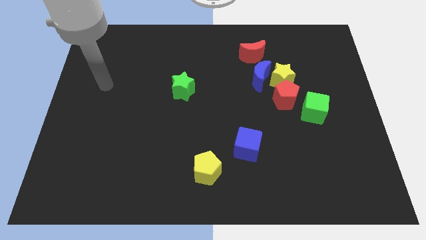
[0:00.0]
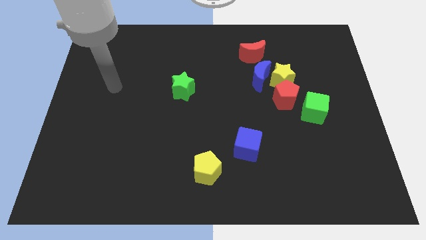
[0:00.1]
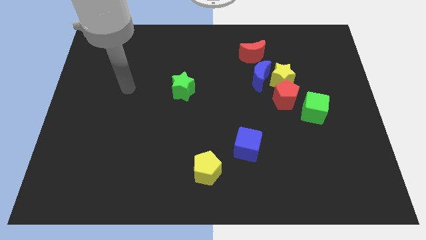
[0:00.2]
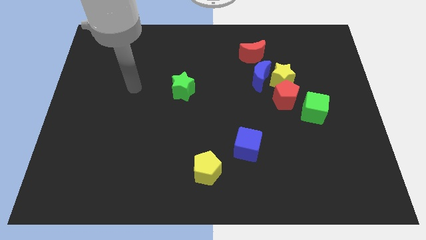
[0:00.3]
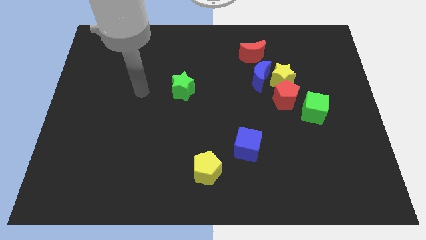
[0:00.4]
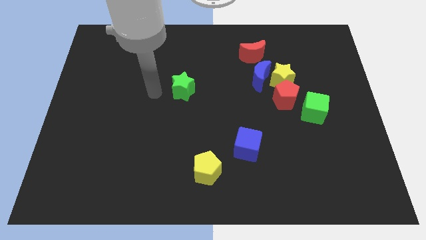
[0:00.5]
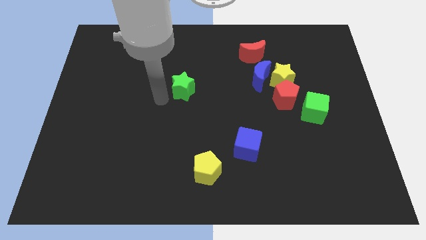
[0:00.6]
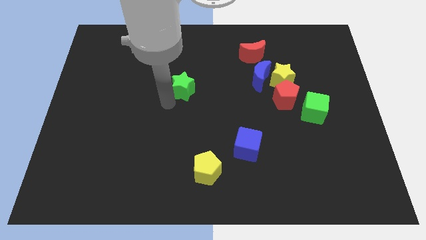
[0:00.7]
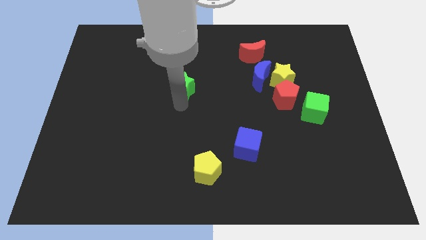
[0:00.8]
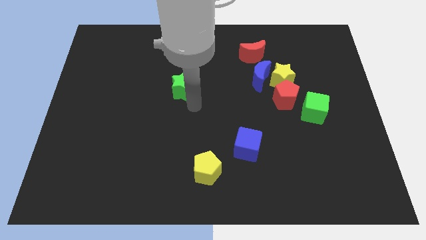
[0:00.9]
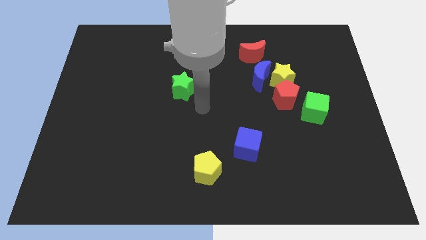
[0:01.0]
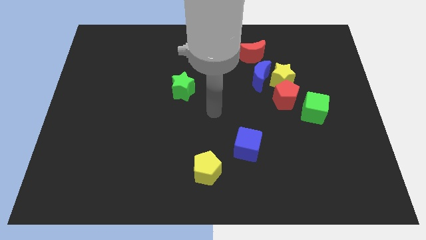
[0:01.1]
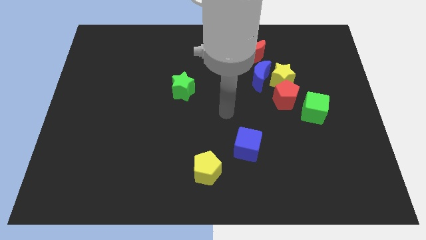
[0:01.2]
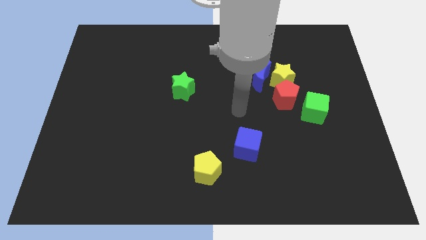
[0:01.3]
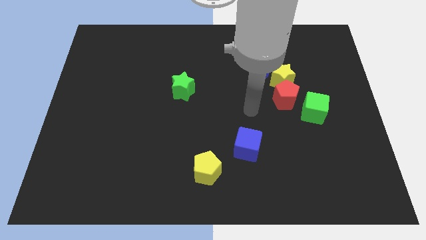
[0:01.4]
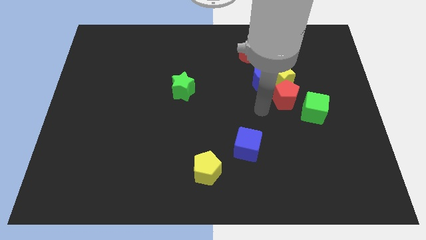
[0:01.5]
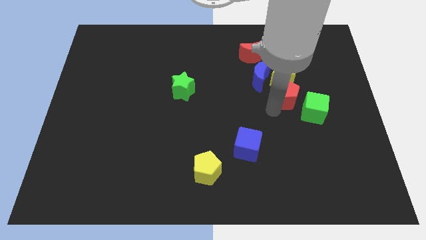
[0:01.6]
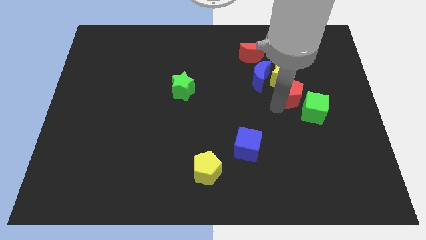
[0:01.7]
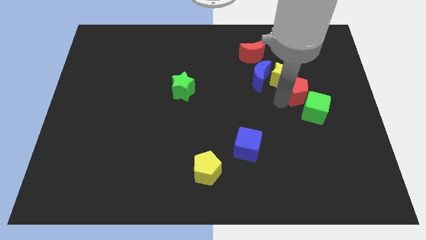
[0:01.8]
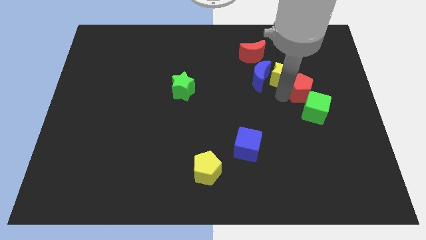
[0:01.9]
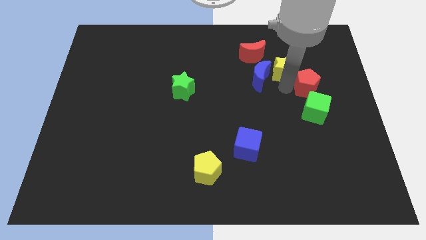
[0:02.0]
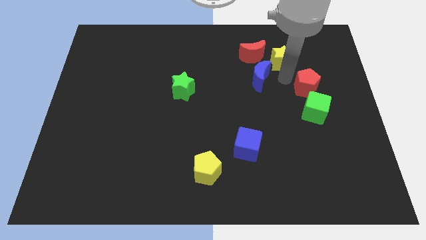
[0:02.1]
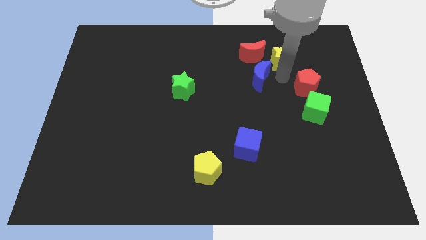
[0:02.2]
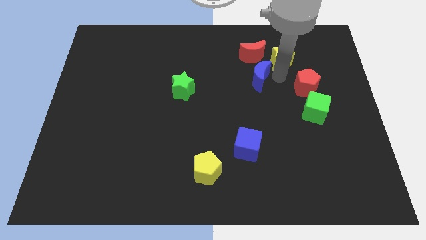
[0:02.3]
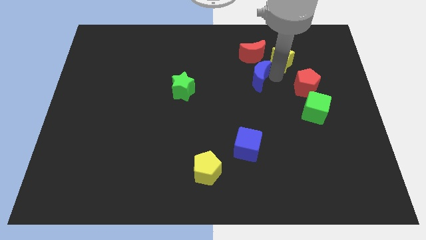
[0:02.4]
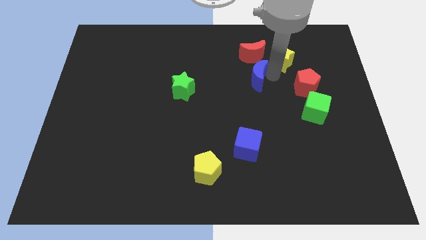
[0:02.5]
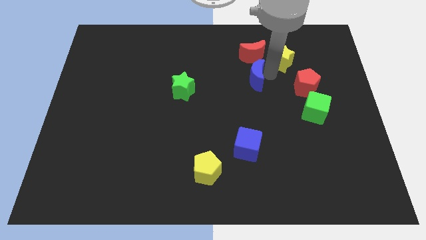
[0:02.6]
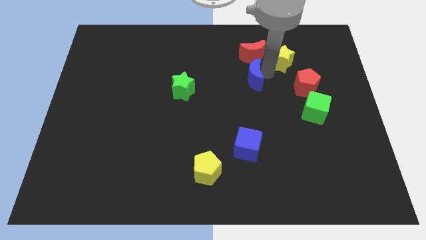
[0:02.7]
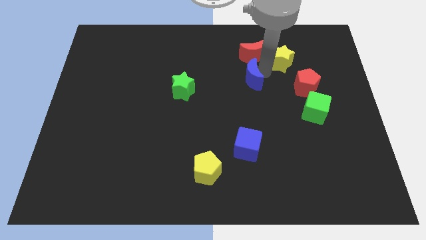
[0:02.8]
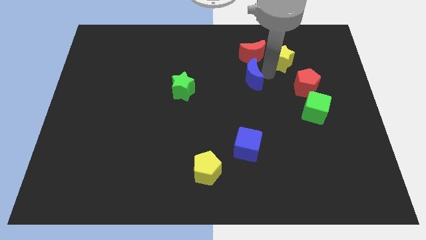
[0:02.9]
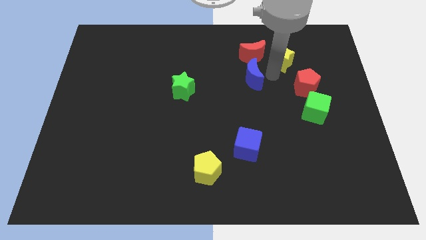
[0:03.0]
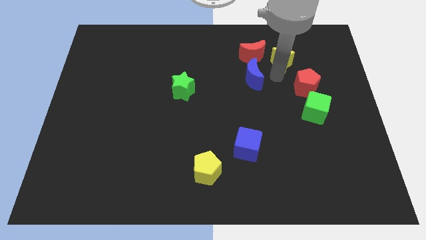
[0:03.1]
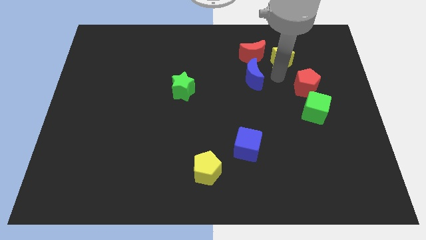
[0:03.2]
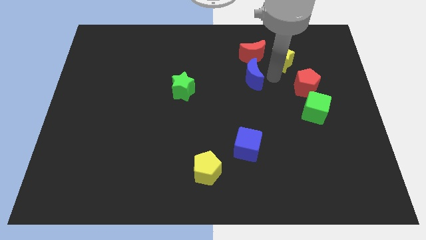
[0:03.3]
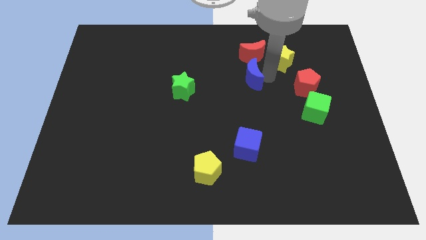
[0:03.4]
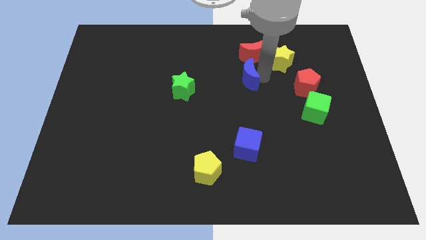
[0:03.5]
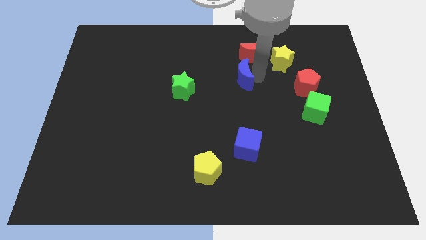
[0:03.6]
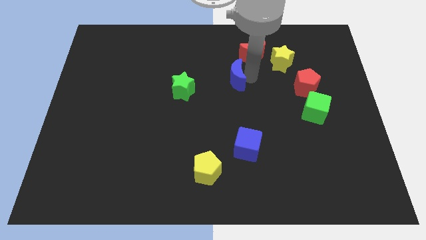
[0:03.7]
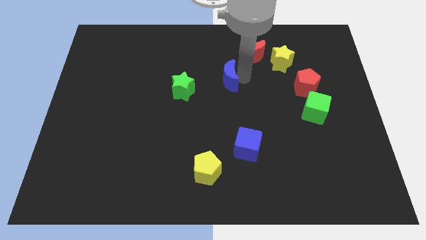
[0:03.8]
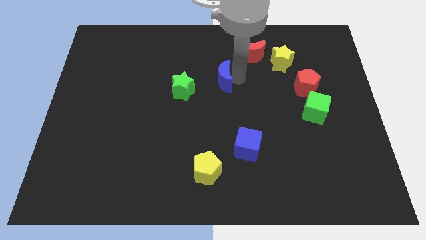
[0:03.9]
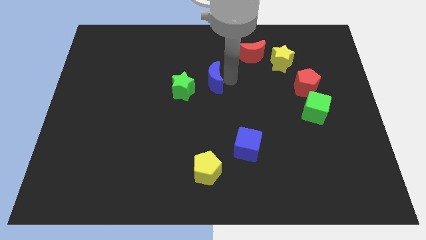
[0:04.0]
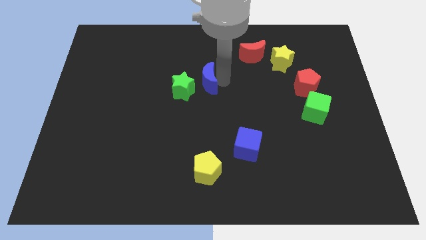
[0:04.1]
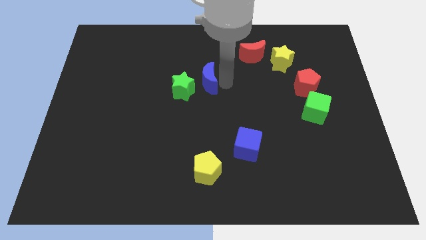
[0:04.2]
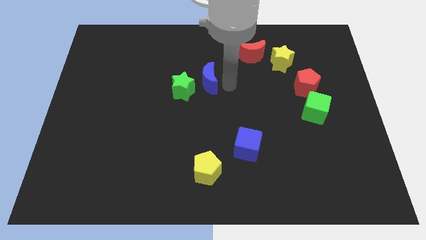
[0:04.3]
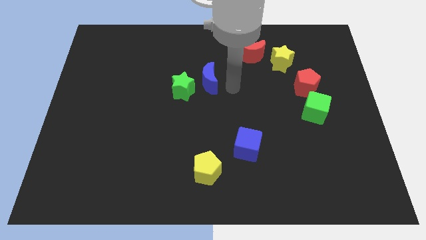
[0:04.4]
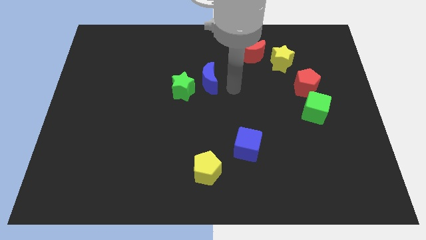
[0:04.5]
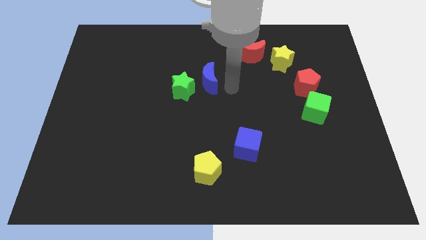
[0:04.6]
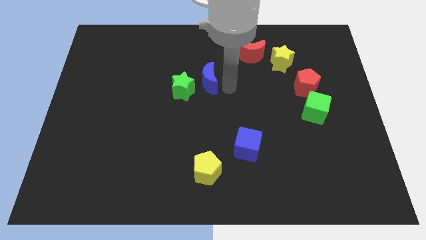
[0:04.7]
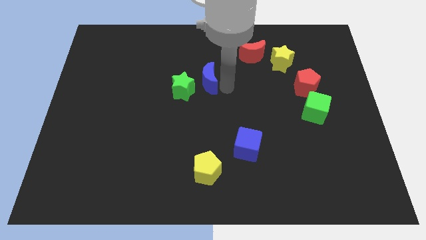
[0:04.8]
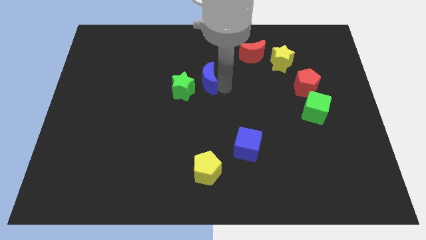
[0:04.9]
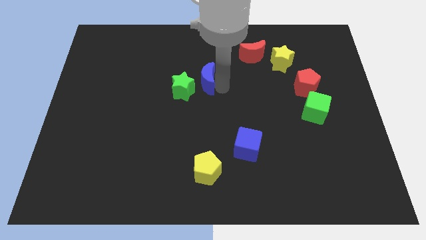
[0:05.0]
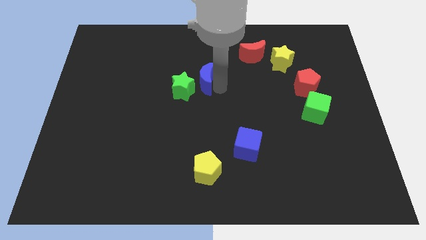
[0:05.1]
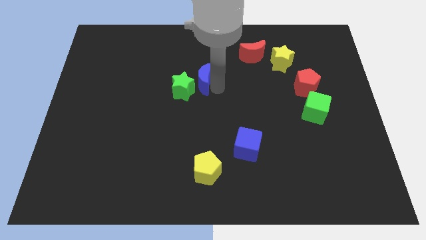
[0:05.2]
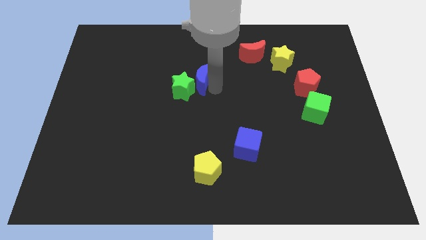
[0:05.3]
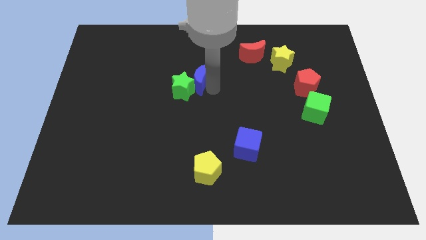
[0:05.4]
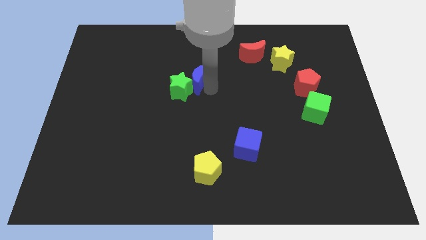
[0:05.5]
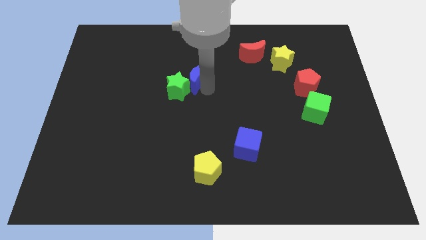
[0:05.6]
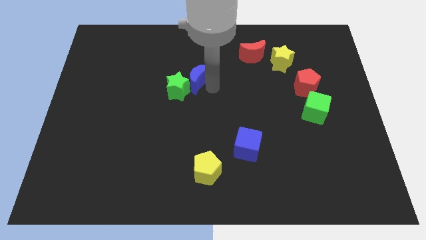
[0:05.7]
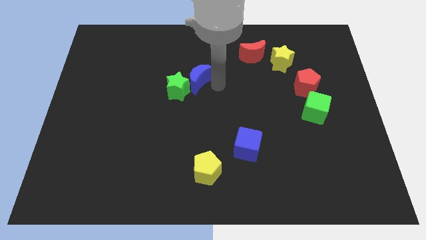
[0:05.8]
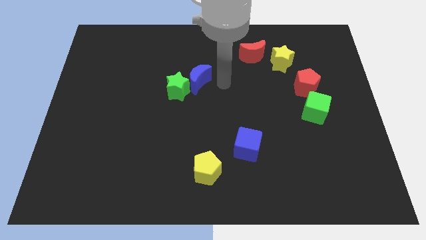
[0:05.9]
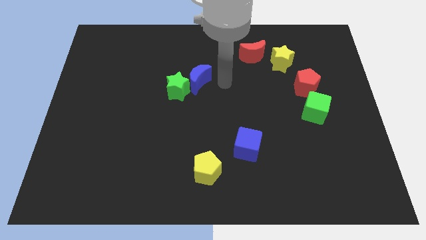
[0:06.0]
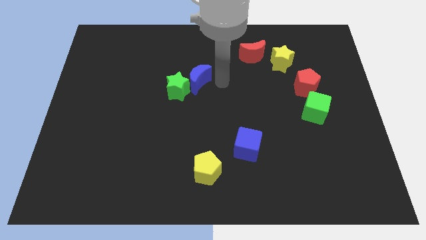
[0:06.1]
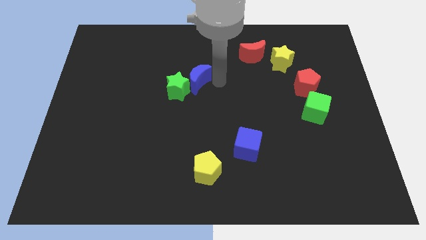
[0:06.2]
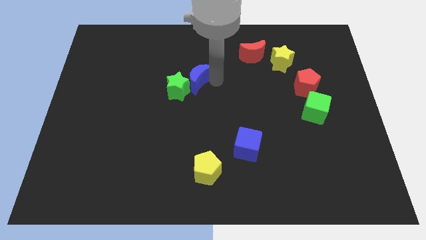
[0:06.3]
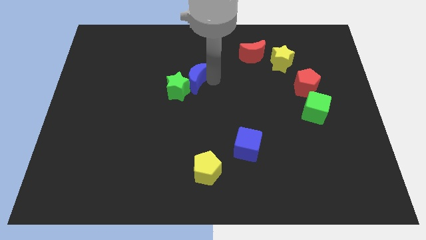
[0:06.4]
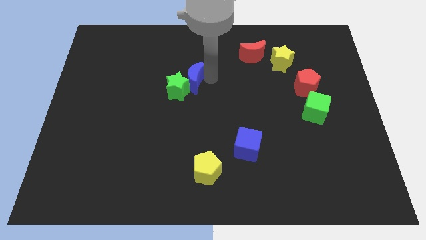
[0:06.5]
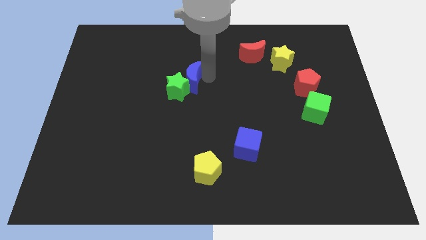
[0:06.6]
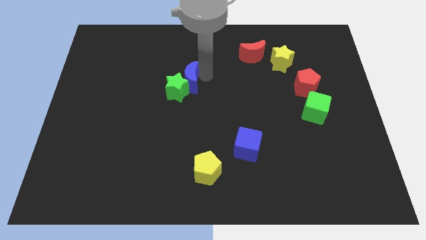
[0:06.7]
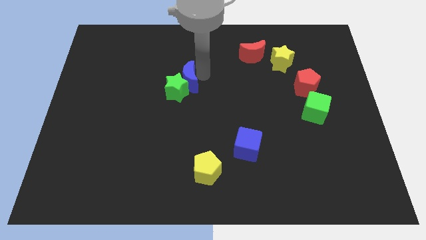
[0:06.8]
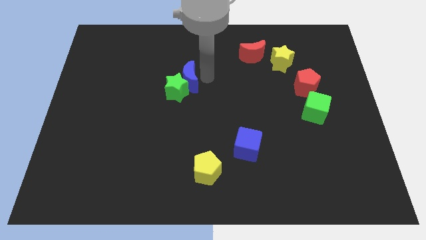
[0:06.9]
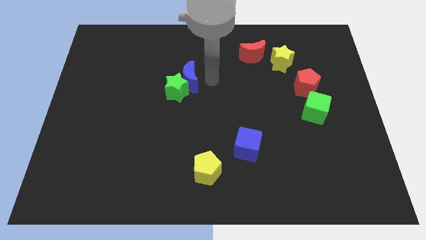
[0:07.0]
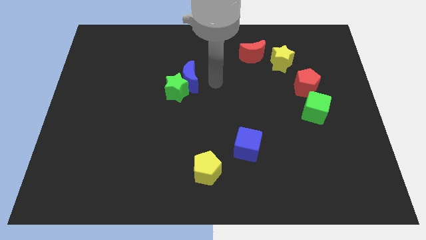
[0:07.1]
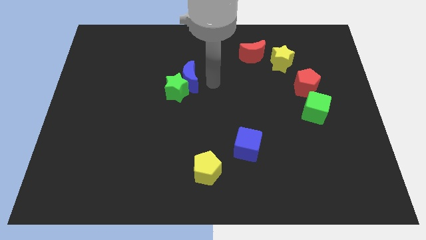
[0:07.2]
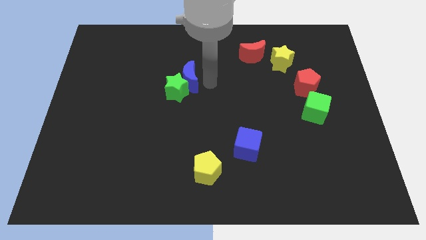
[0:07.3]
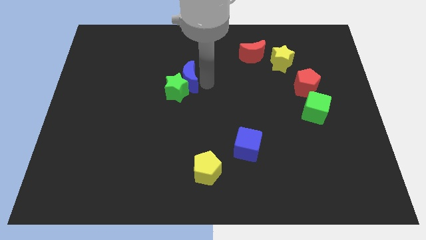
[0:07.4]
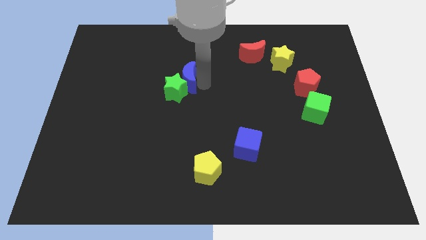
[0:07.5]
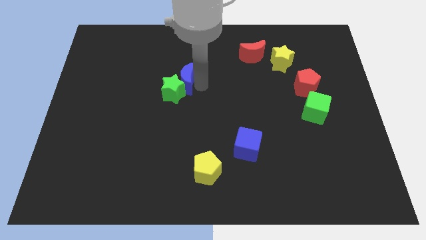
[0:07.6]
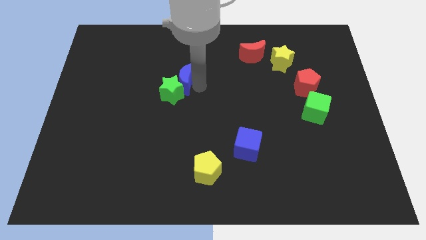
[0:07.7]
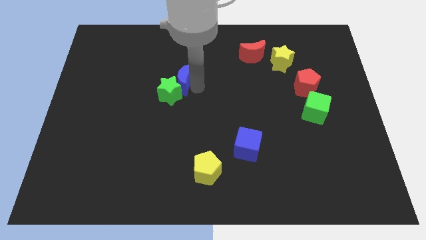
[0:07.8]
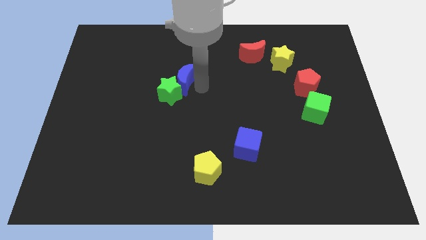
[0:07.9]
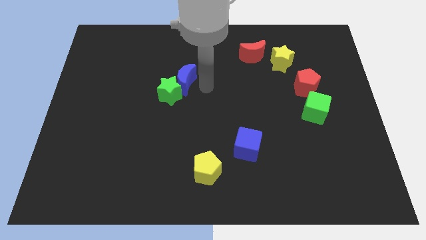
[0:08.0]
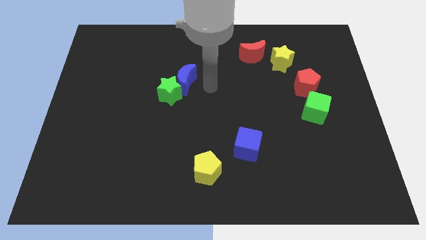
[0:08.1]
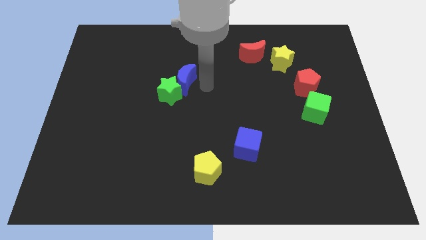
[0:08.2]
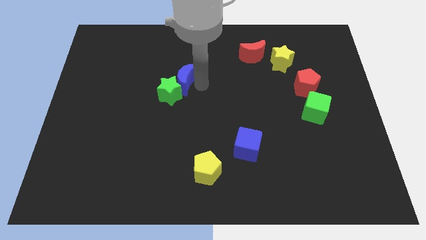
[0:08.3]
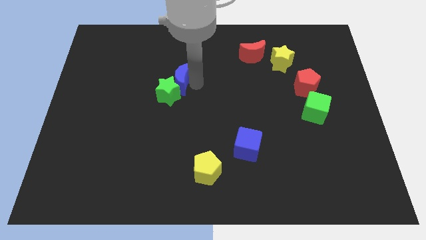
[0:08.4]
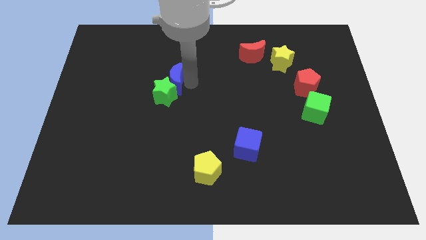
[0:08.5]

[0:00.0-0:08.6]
slide the blue moon left
